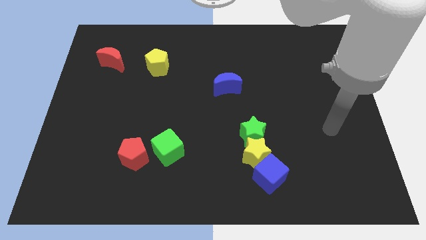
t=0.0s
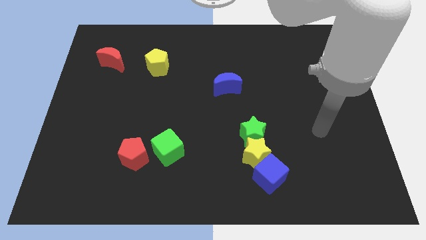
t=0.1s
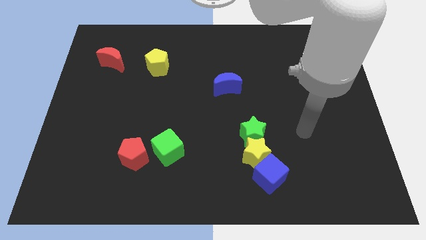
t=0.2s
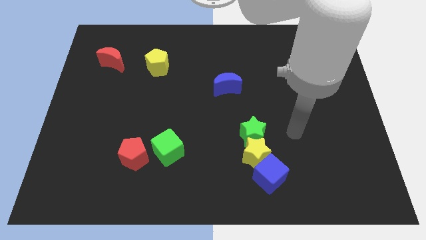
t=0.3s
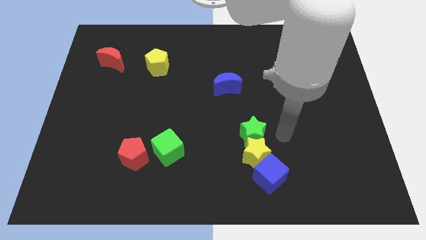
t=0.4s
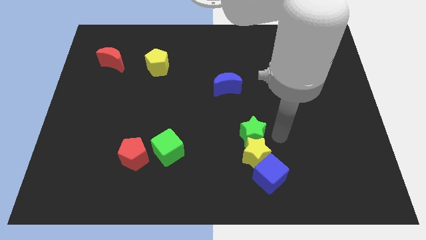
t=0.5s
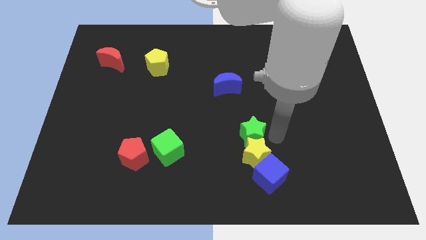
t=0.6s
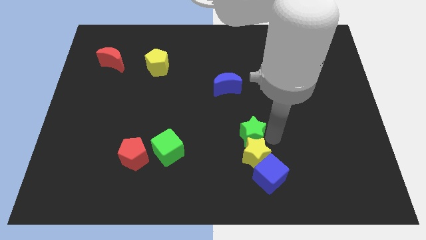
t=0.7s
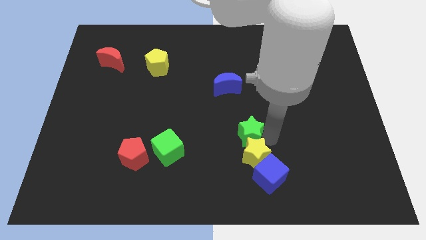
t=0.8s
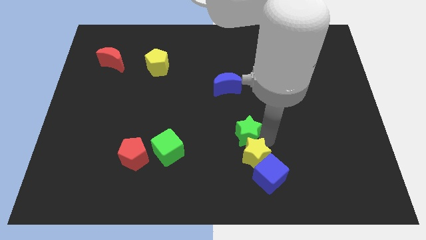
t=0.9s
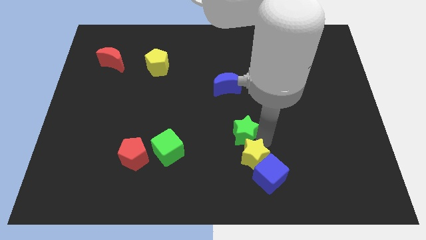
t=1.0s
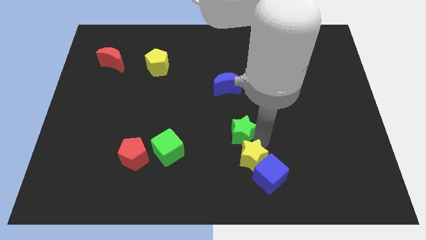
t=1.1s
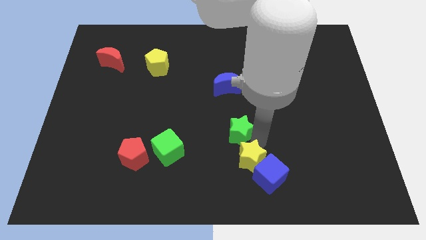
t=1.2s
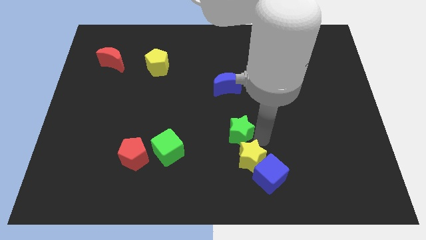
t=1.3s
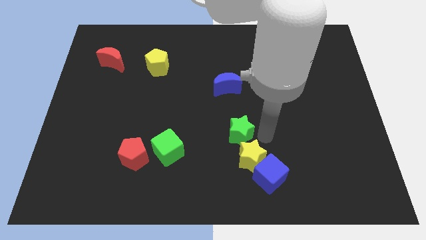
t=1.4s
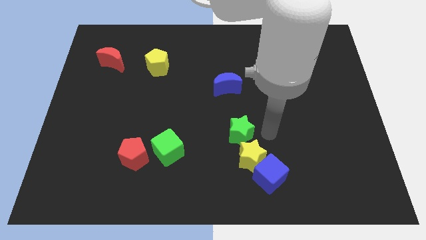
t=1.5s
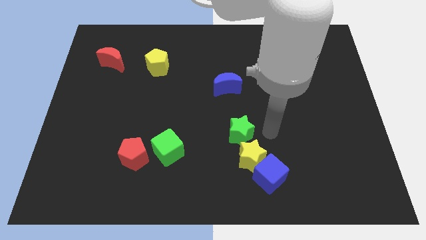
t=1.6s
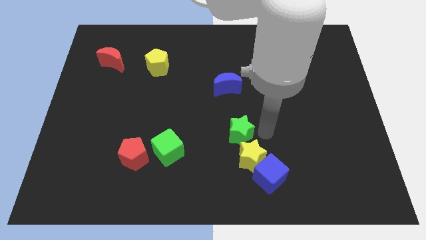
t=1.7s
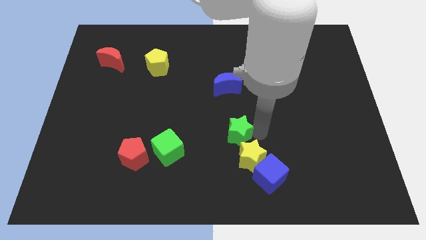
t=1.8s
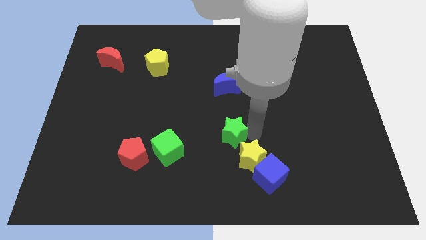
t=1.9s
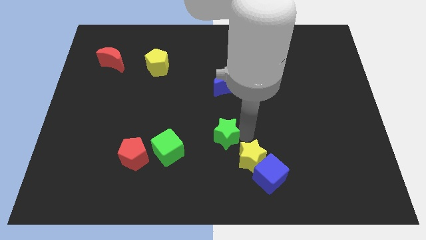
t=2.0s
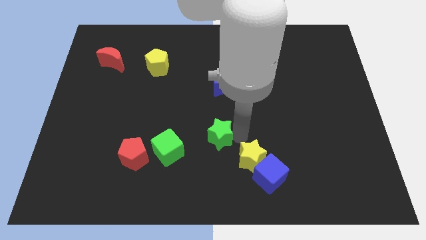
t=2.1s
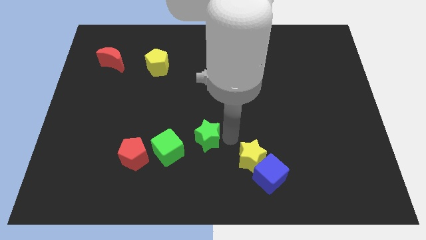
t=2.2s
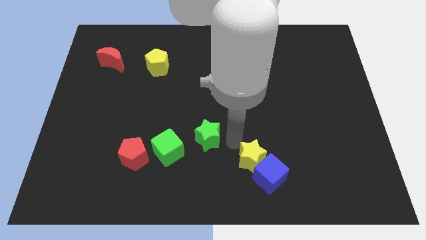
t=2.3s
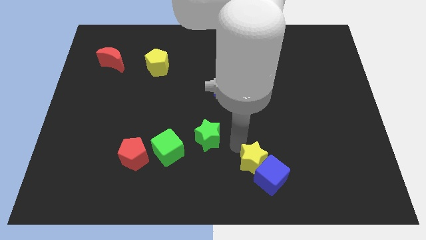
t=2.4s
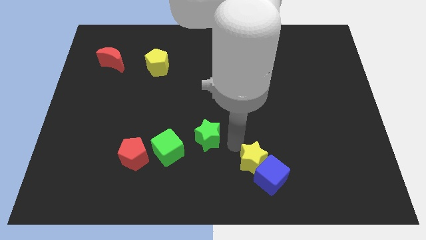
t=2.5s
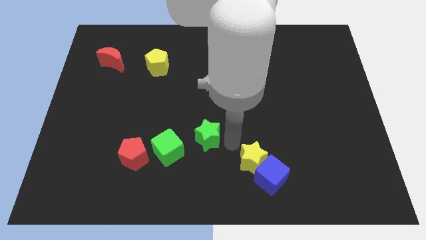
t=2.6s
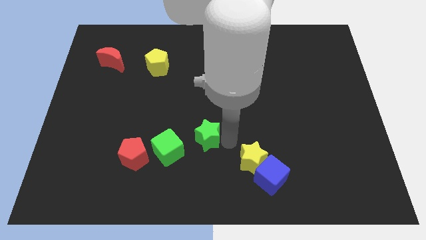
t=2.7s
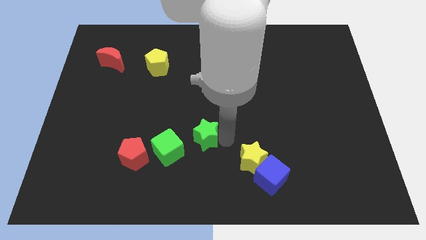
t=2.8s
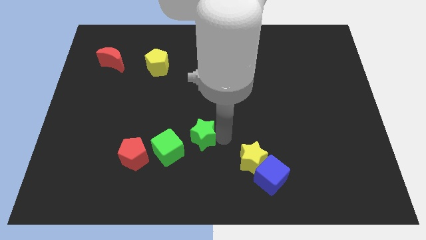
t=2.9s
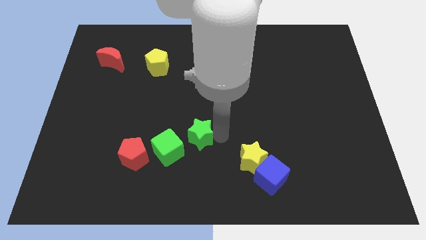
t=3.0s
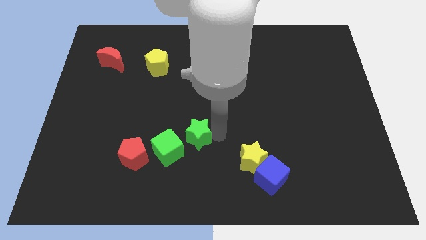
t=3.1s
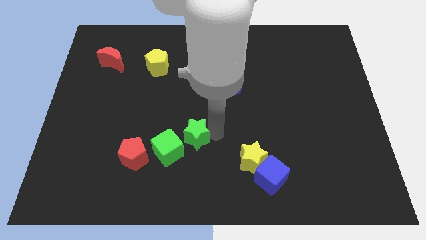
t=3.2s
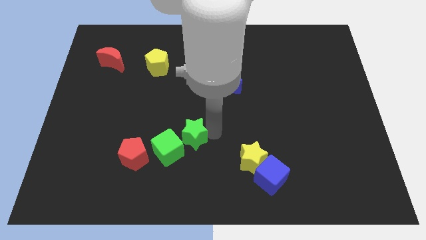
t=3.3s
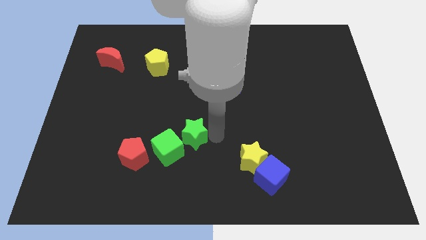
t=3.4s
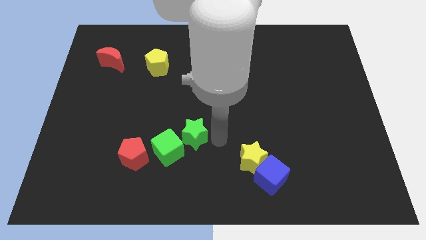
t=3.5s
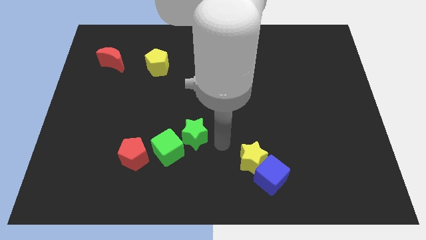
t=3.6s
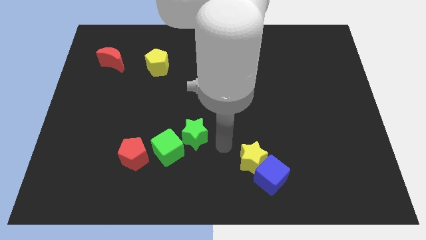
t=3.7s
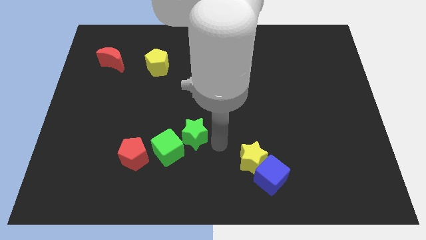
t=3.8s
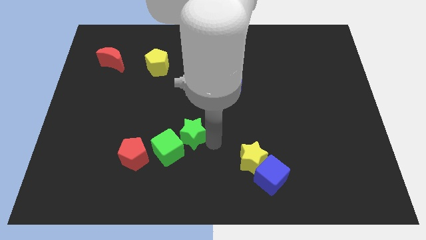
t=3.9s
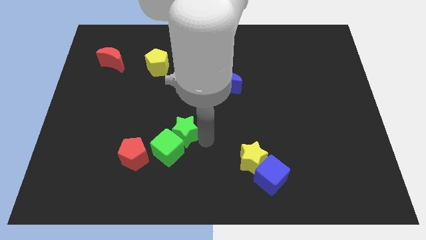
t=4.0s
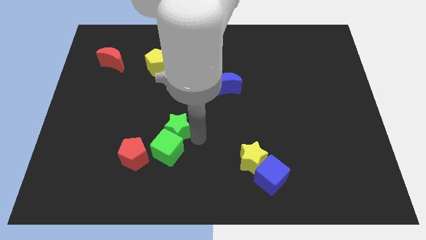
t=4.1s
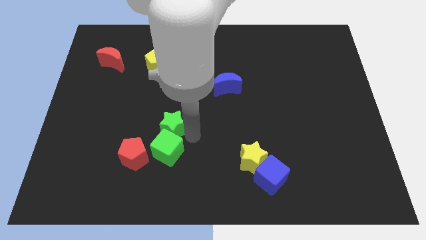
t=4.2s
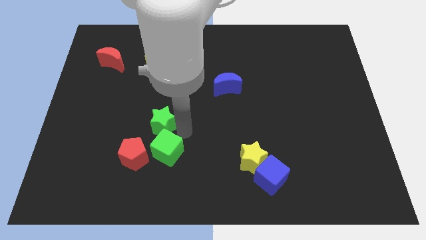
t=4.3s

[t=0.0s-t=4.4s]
push the green star to the left

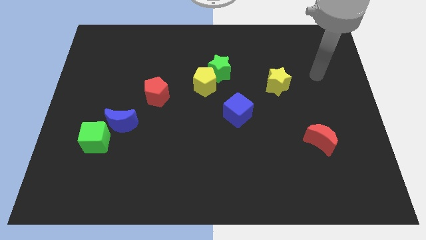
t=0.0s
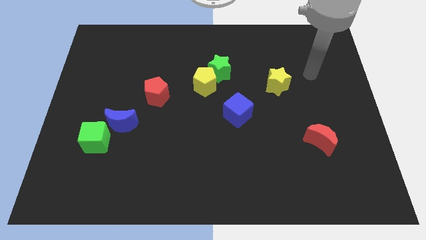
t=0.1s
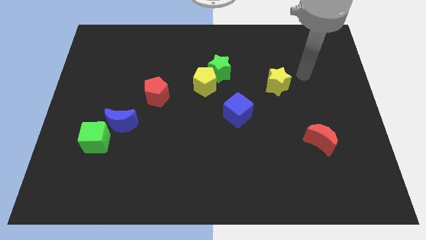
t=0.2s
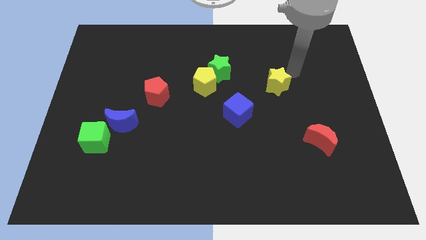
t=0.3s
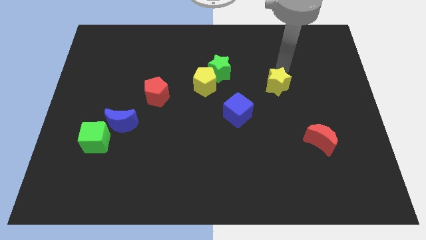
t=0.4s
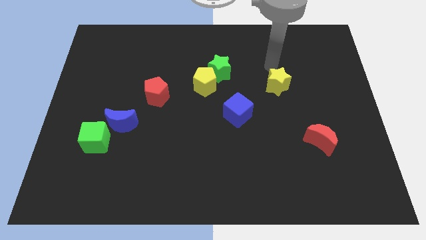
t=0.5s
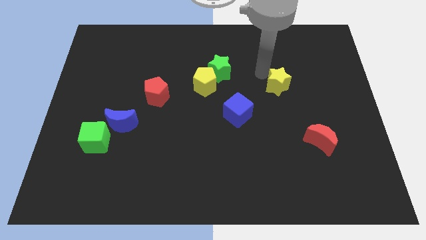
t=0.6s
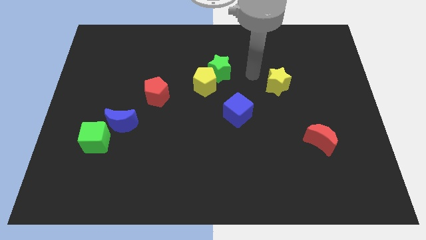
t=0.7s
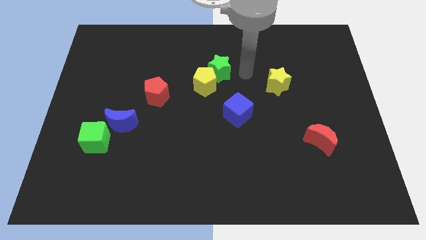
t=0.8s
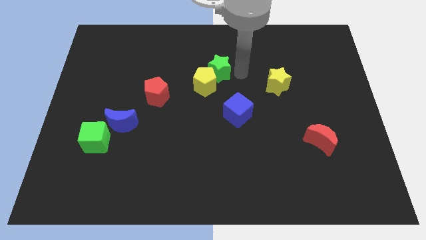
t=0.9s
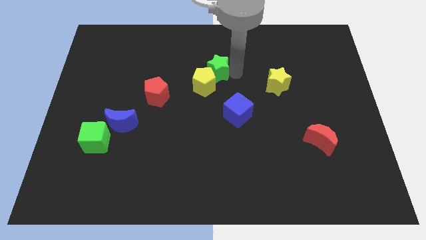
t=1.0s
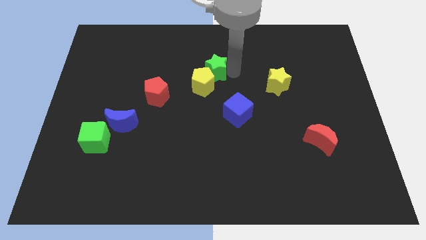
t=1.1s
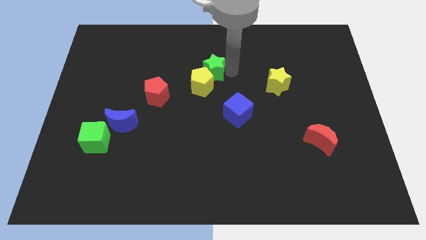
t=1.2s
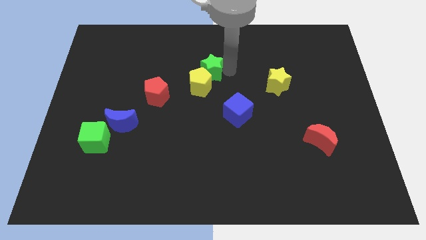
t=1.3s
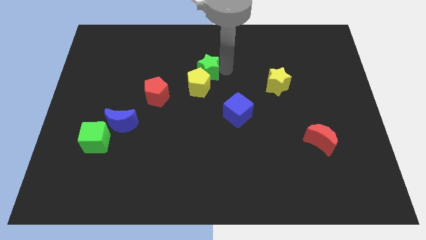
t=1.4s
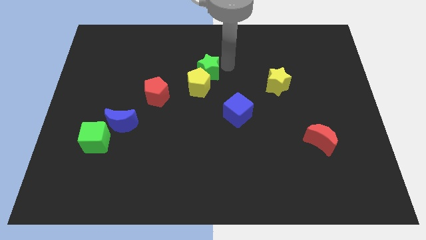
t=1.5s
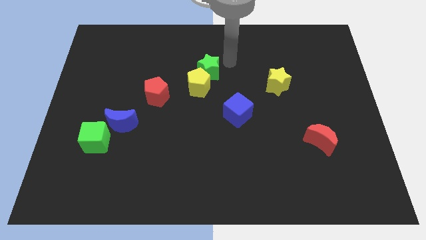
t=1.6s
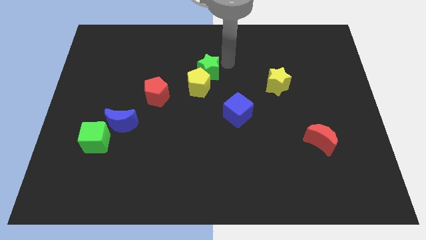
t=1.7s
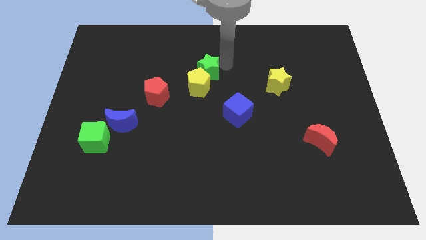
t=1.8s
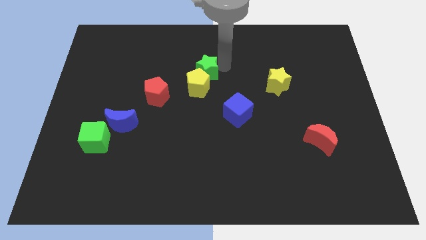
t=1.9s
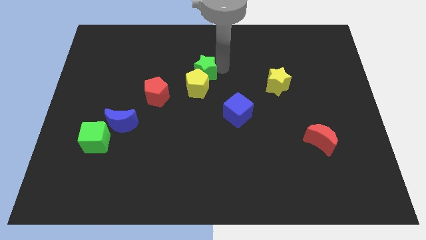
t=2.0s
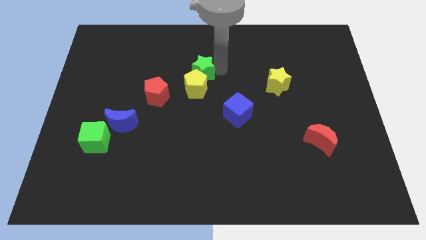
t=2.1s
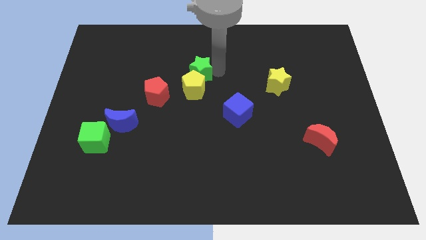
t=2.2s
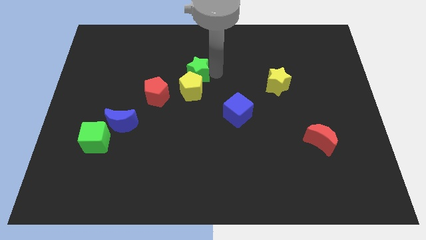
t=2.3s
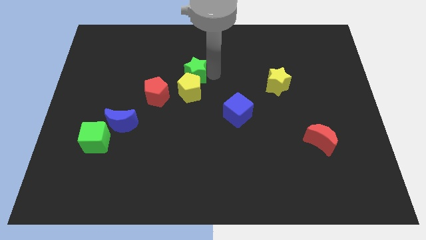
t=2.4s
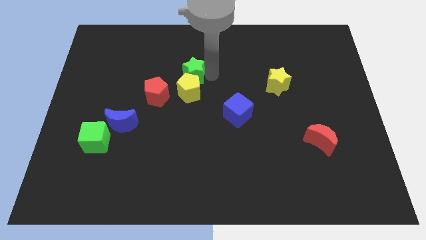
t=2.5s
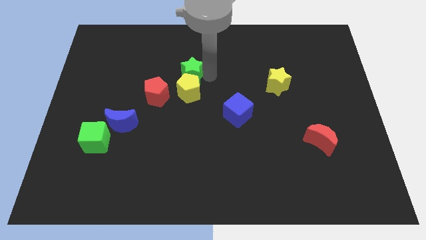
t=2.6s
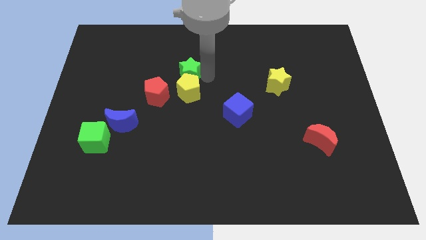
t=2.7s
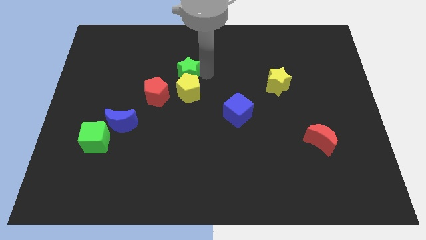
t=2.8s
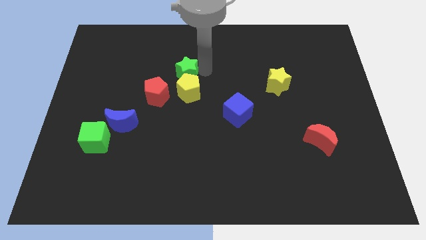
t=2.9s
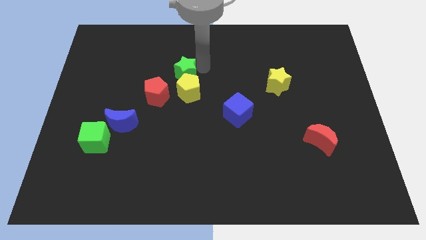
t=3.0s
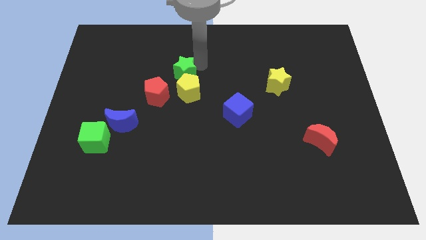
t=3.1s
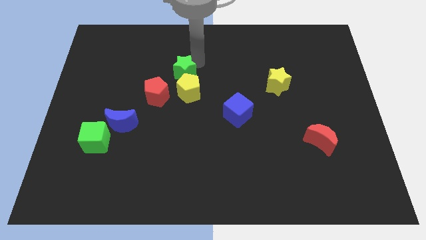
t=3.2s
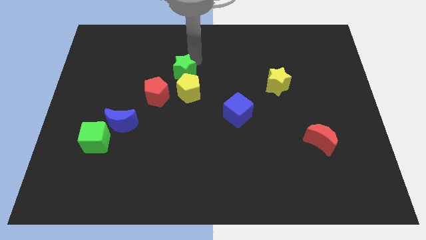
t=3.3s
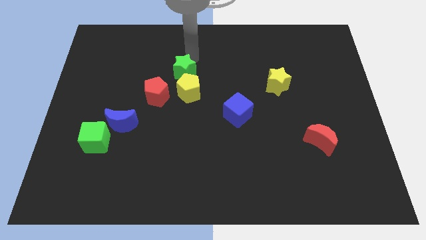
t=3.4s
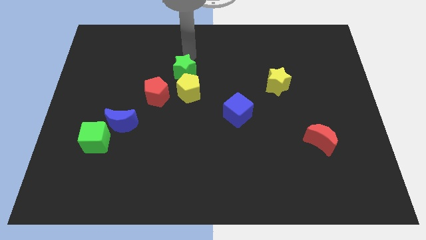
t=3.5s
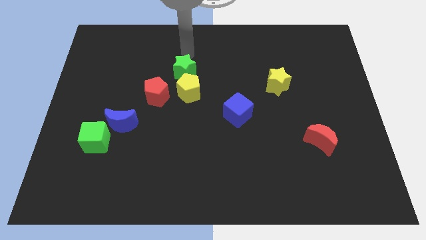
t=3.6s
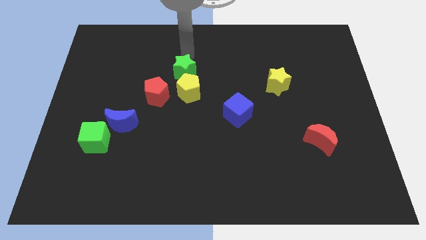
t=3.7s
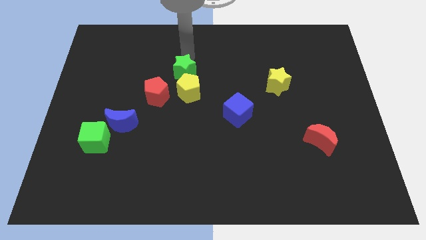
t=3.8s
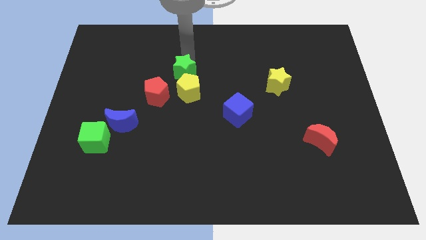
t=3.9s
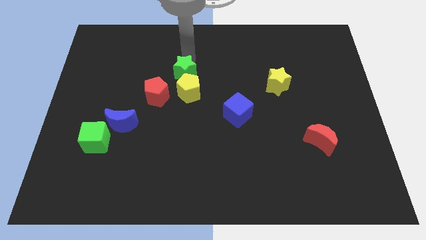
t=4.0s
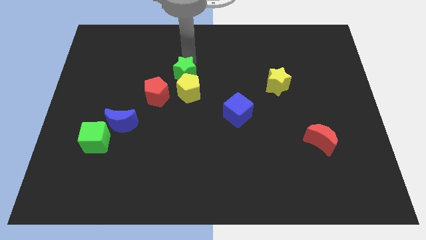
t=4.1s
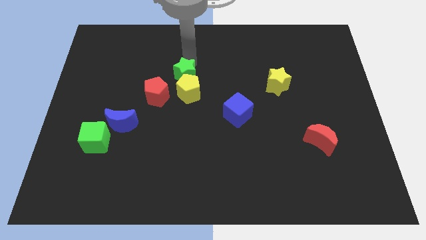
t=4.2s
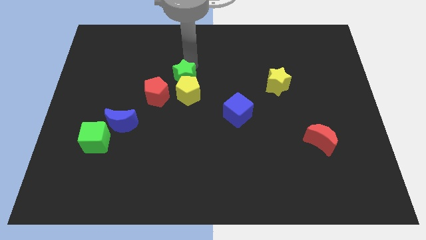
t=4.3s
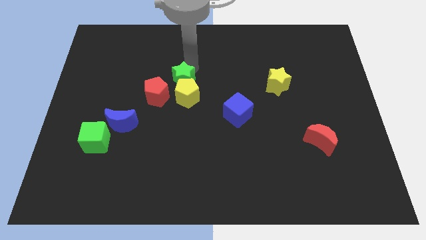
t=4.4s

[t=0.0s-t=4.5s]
slightly push the green star down and to the left diagonally
